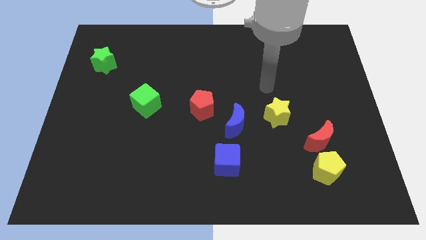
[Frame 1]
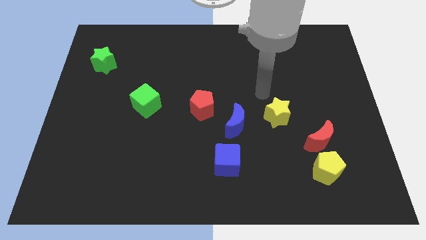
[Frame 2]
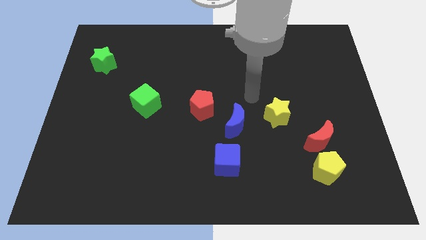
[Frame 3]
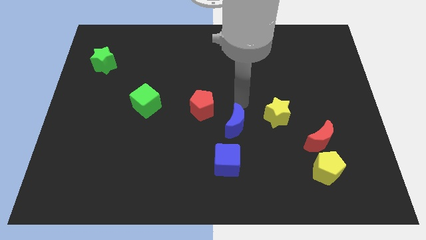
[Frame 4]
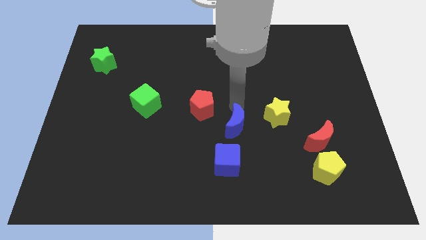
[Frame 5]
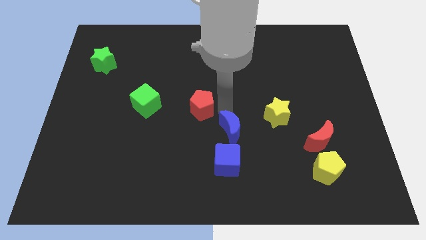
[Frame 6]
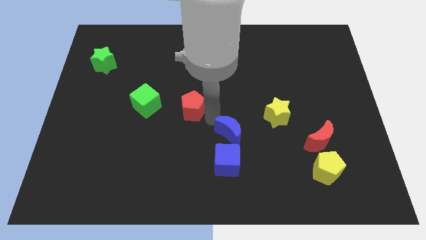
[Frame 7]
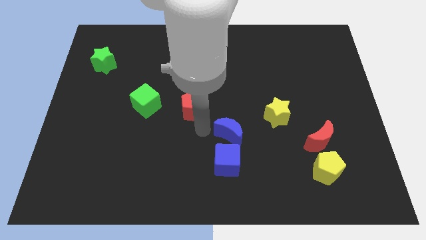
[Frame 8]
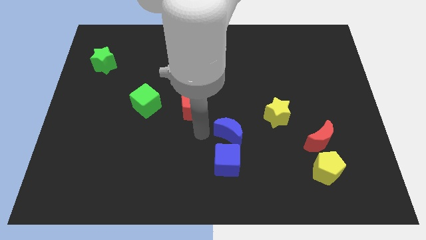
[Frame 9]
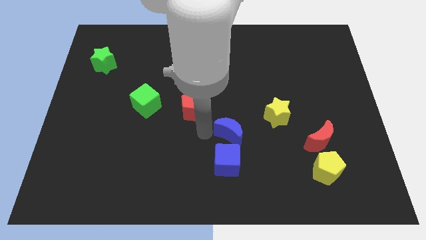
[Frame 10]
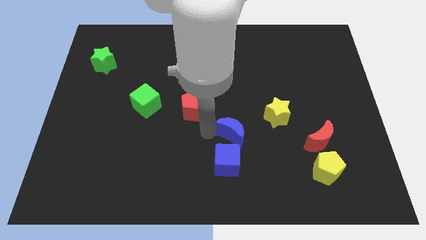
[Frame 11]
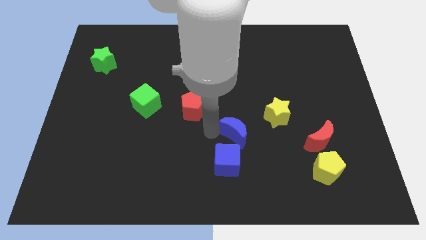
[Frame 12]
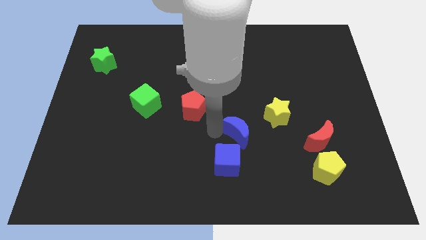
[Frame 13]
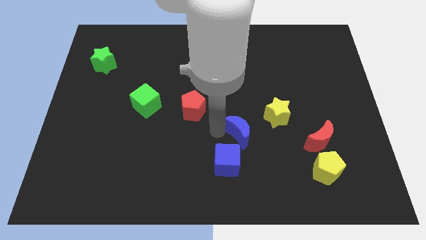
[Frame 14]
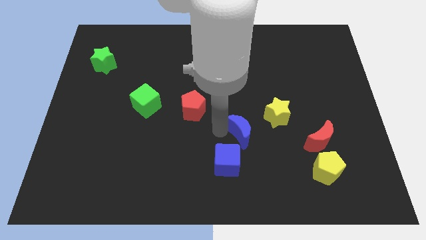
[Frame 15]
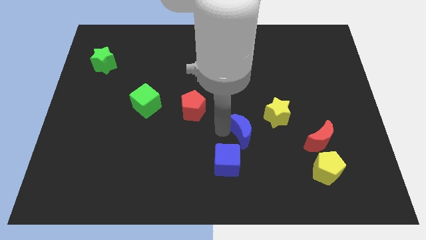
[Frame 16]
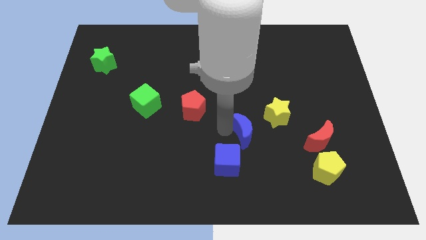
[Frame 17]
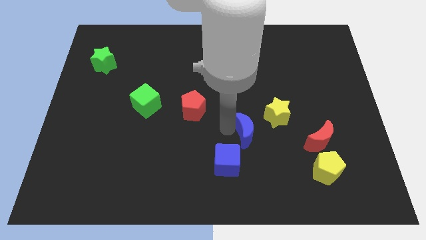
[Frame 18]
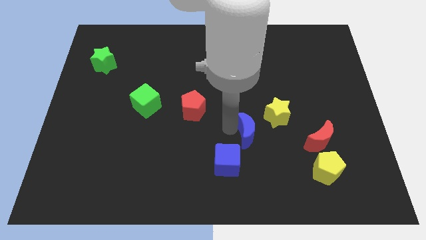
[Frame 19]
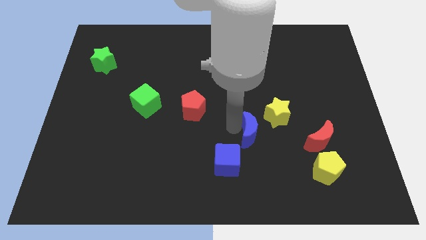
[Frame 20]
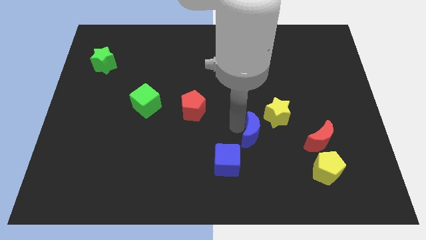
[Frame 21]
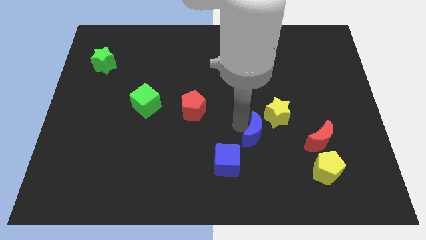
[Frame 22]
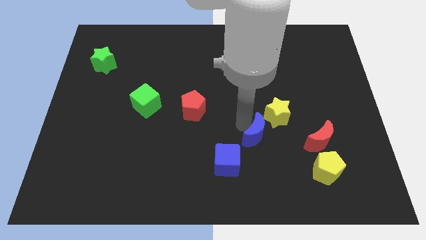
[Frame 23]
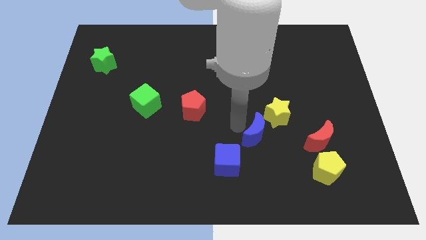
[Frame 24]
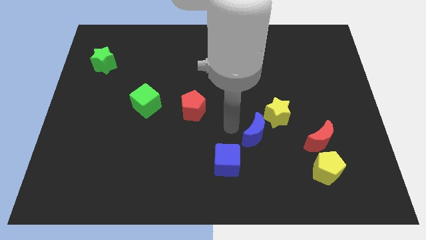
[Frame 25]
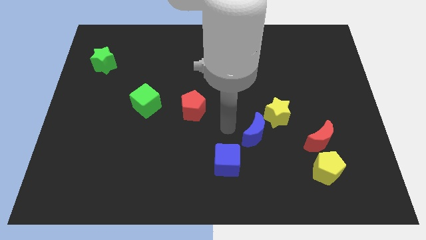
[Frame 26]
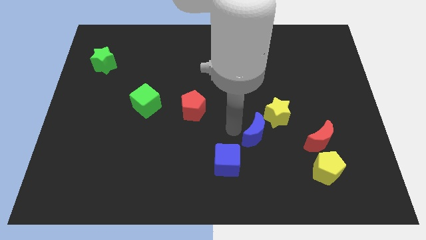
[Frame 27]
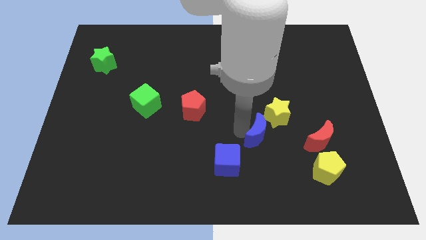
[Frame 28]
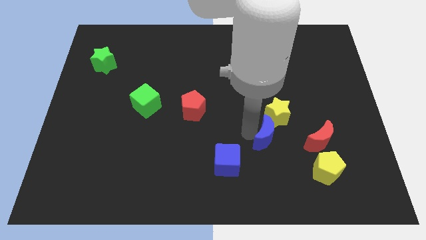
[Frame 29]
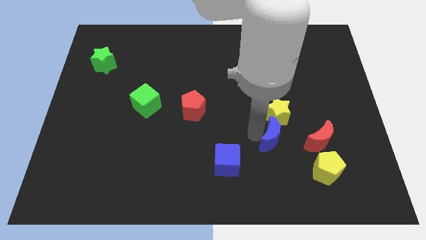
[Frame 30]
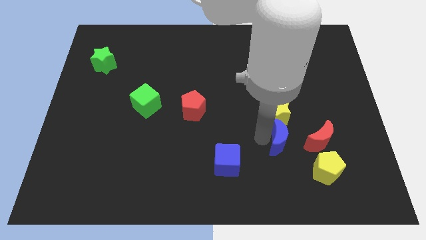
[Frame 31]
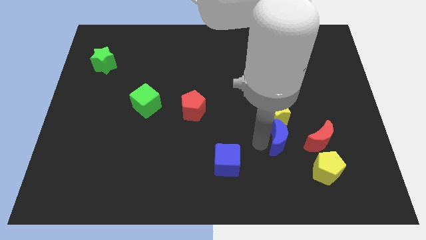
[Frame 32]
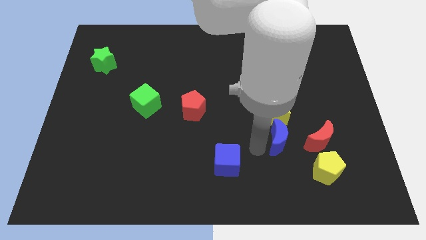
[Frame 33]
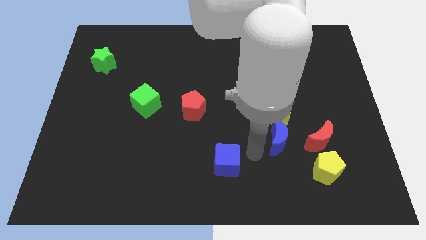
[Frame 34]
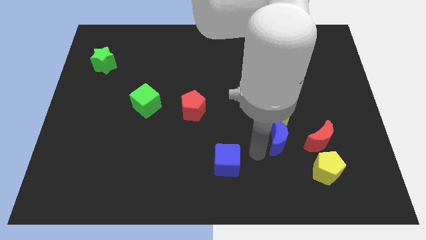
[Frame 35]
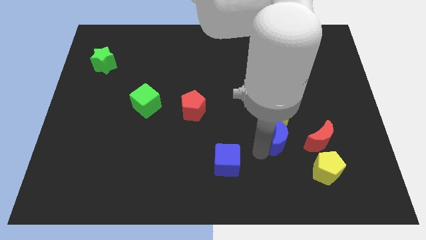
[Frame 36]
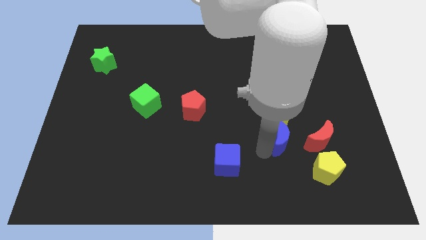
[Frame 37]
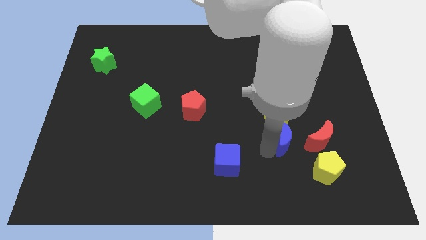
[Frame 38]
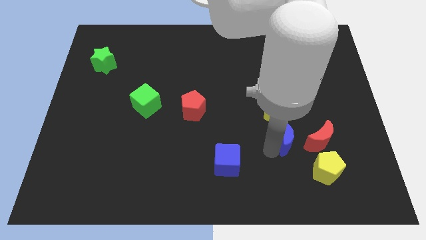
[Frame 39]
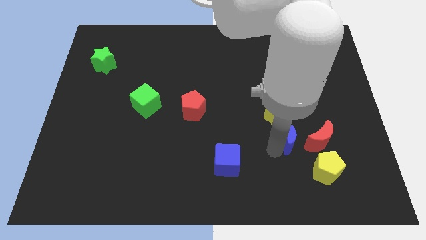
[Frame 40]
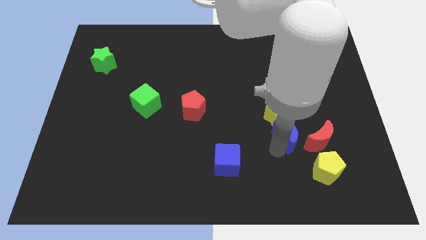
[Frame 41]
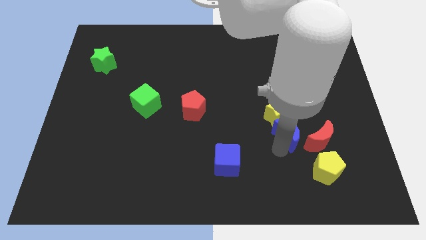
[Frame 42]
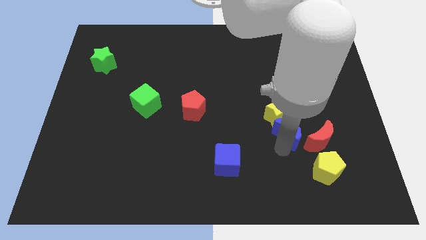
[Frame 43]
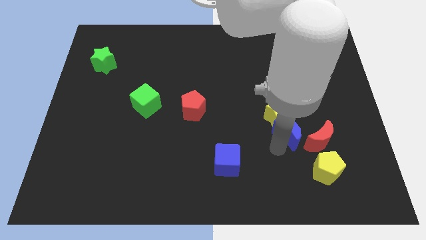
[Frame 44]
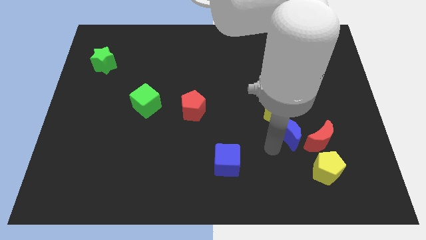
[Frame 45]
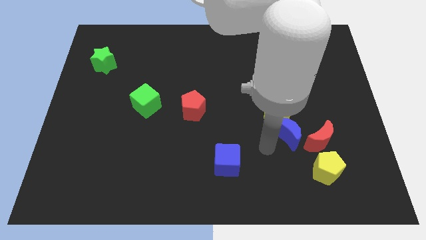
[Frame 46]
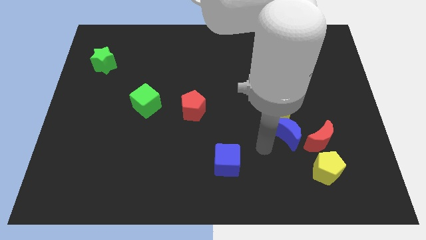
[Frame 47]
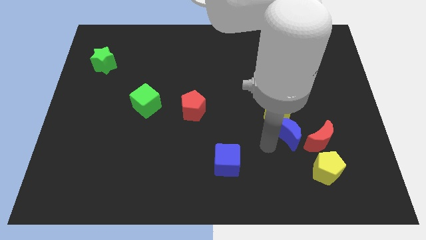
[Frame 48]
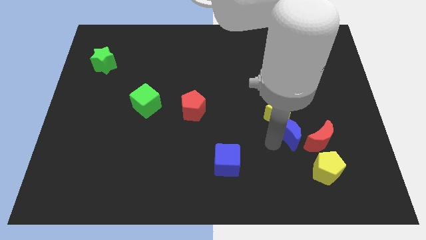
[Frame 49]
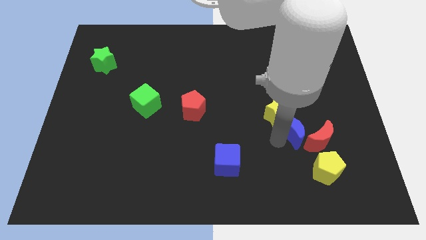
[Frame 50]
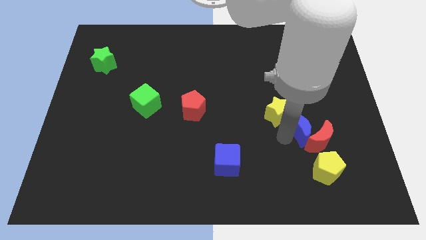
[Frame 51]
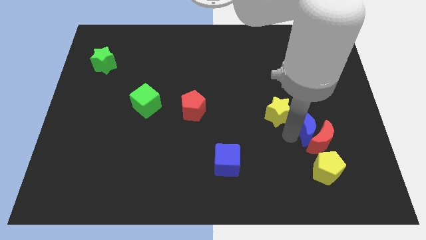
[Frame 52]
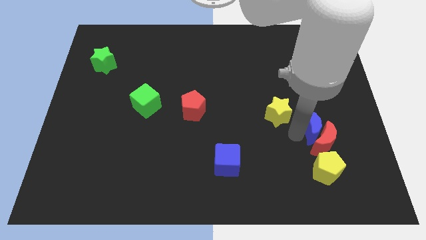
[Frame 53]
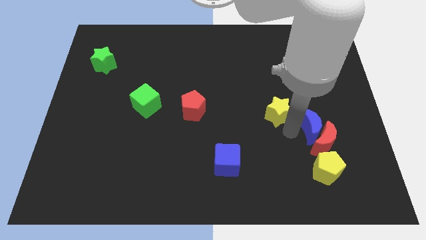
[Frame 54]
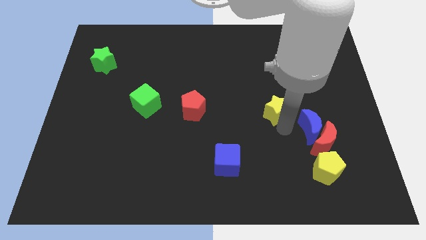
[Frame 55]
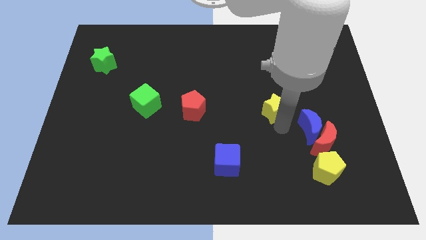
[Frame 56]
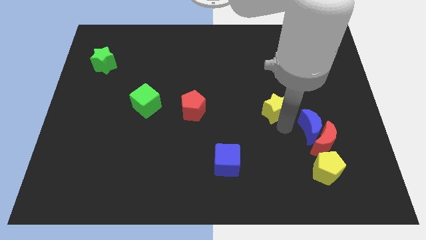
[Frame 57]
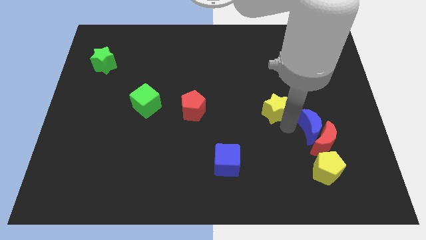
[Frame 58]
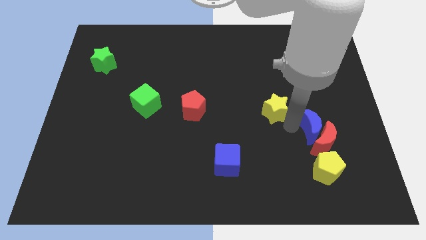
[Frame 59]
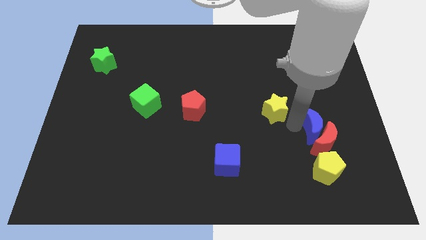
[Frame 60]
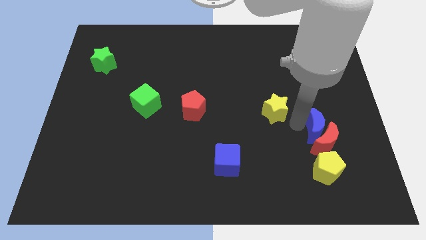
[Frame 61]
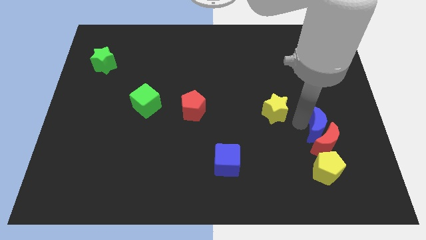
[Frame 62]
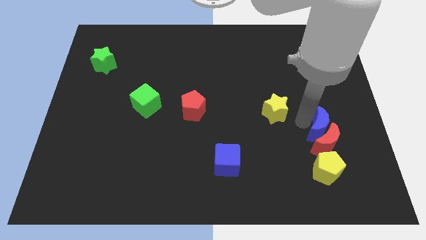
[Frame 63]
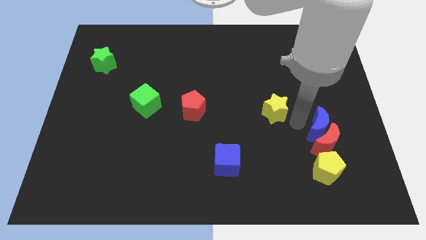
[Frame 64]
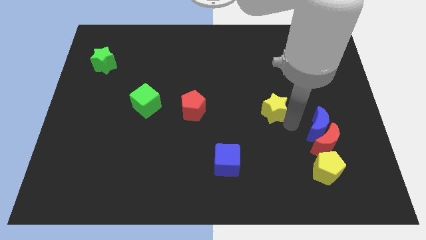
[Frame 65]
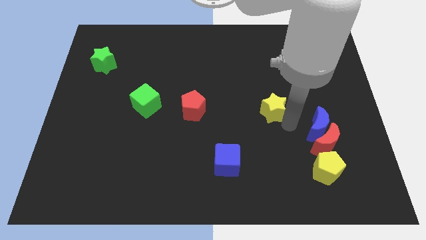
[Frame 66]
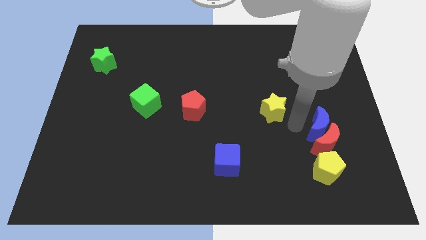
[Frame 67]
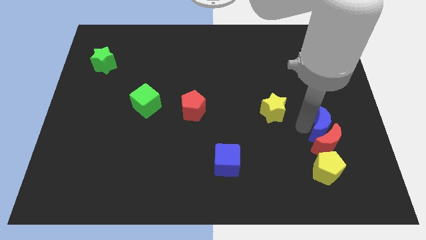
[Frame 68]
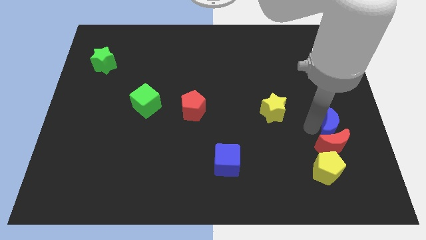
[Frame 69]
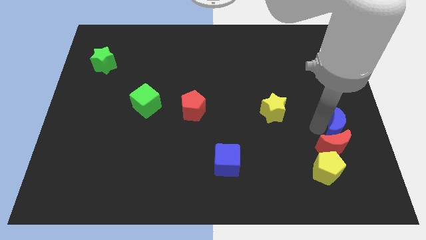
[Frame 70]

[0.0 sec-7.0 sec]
push the blue moon to the center right
